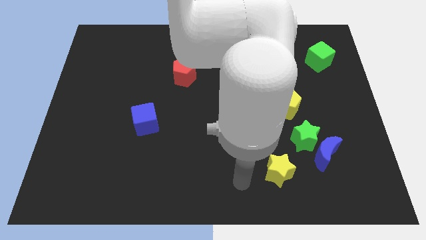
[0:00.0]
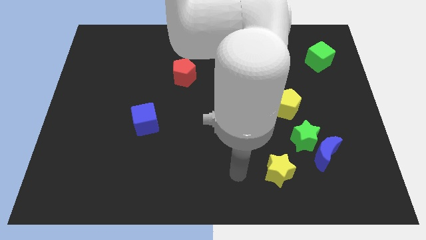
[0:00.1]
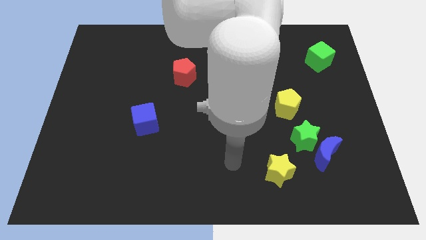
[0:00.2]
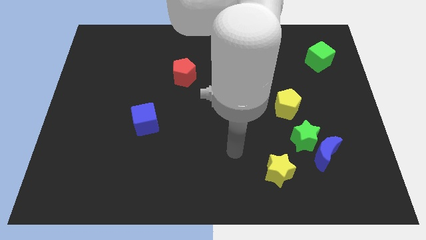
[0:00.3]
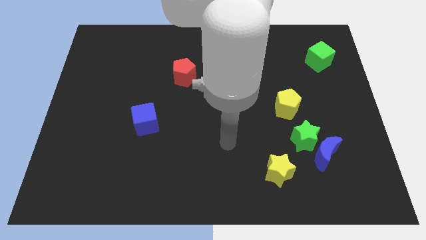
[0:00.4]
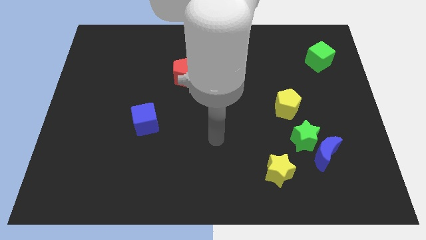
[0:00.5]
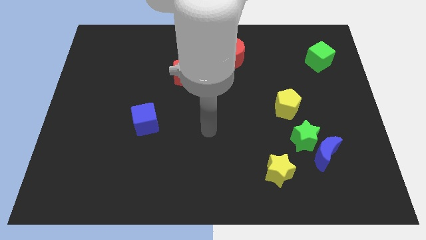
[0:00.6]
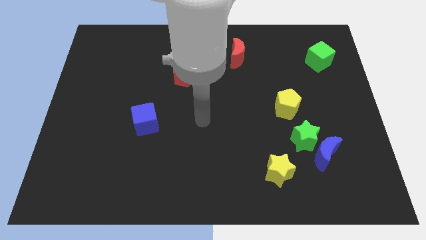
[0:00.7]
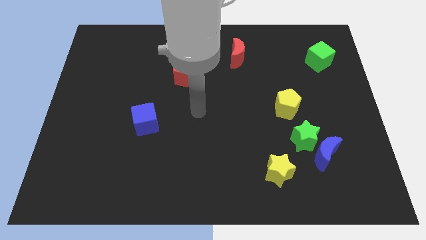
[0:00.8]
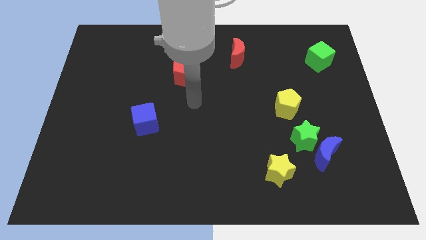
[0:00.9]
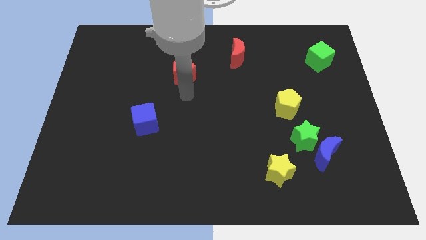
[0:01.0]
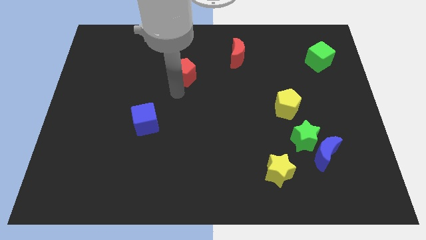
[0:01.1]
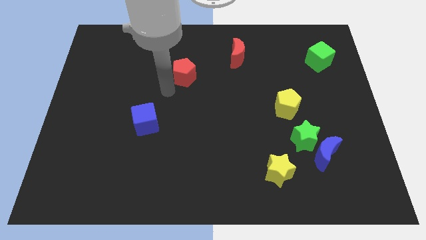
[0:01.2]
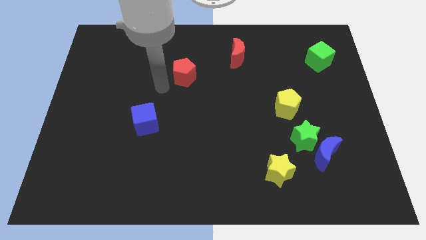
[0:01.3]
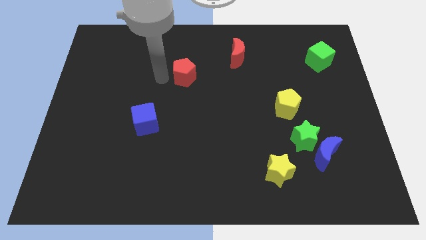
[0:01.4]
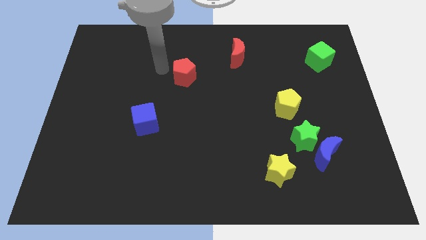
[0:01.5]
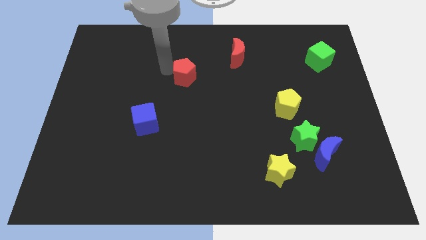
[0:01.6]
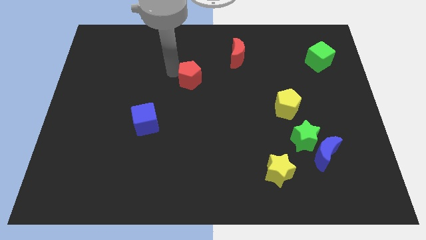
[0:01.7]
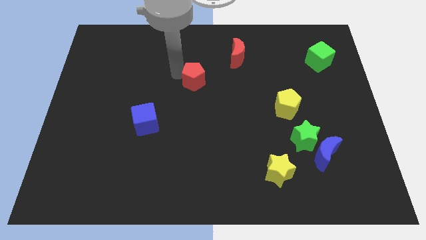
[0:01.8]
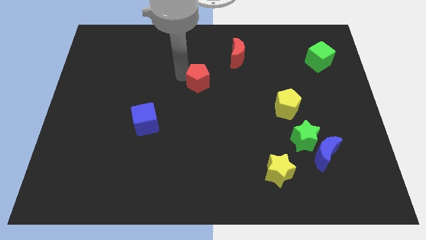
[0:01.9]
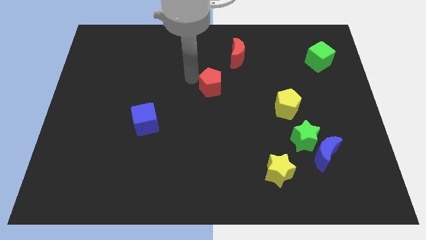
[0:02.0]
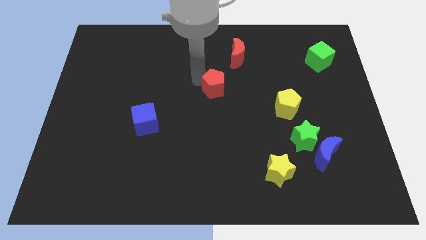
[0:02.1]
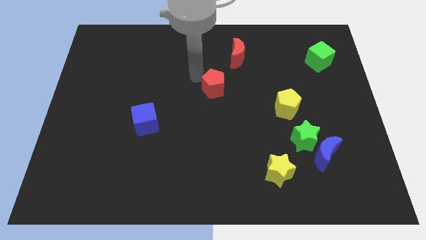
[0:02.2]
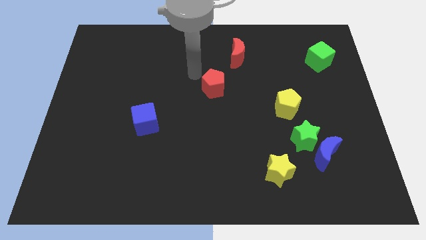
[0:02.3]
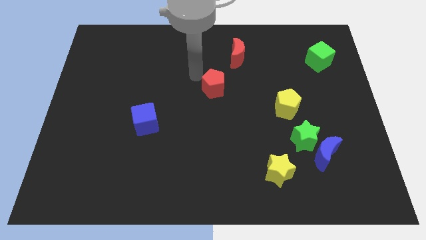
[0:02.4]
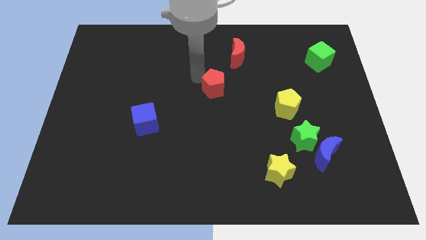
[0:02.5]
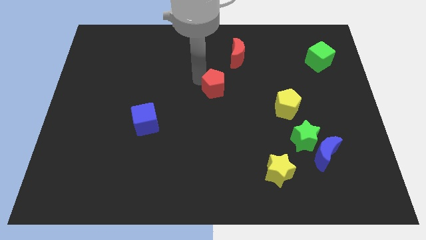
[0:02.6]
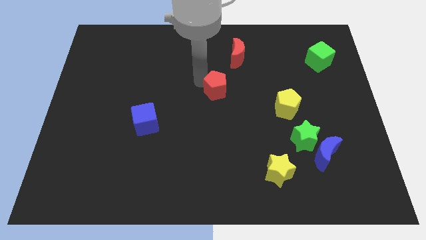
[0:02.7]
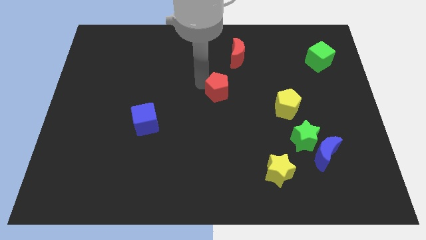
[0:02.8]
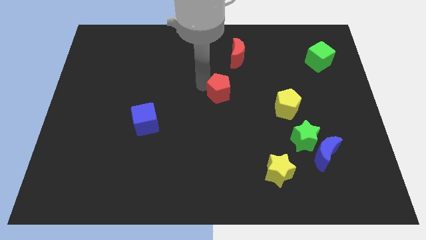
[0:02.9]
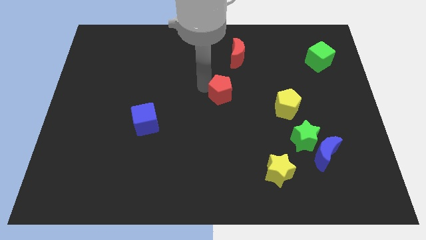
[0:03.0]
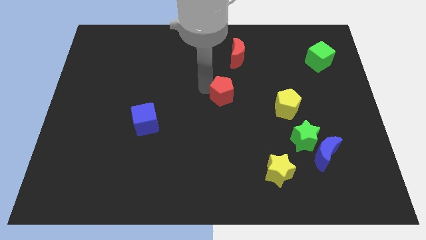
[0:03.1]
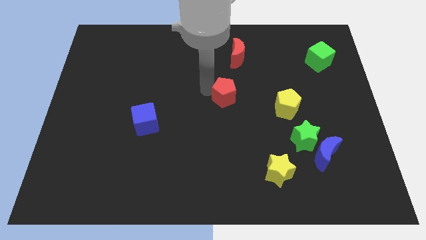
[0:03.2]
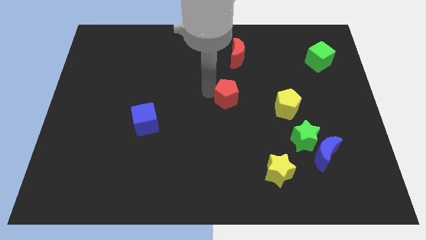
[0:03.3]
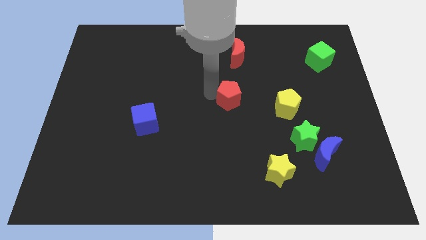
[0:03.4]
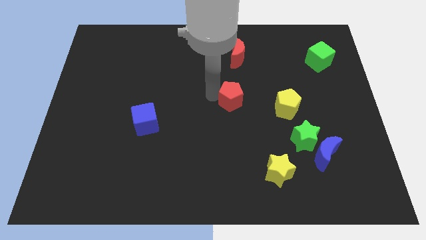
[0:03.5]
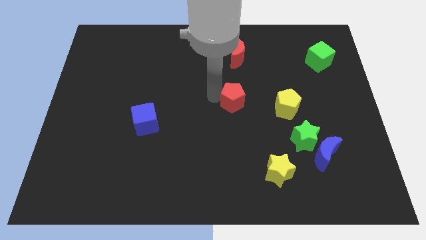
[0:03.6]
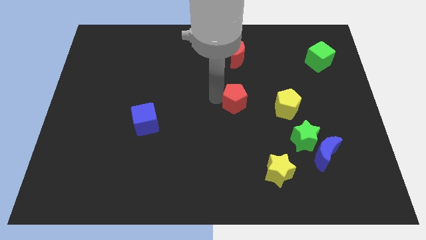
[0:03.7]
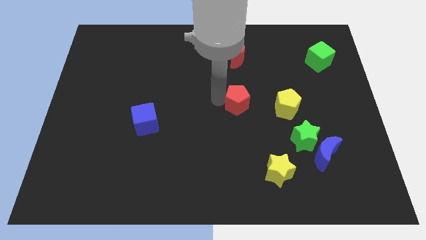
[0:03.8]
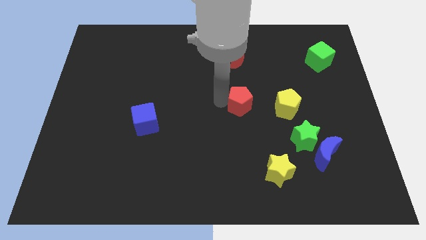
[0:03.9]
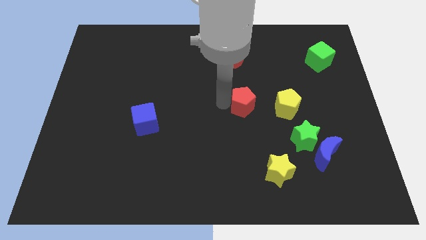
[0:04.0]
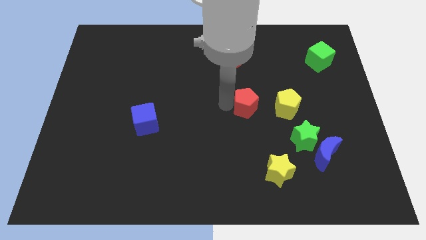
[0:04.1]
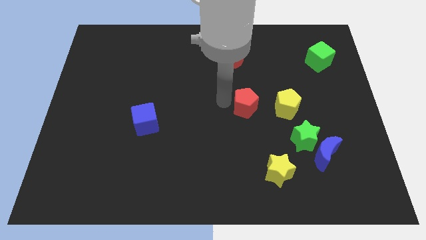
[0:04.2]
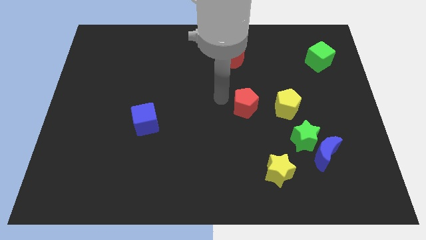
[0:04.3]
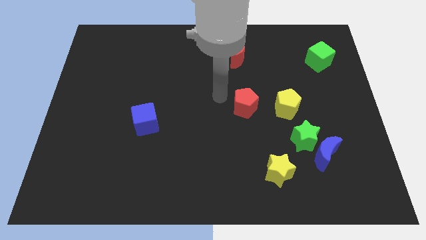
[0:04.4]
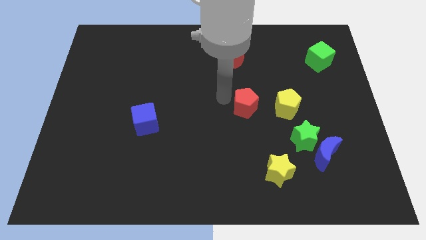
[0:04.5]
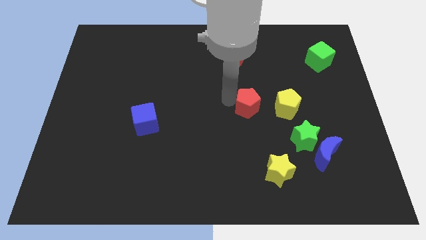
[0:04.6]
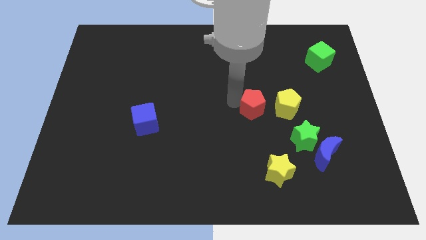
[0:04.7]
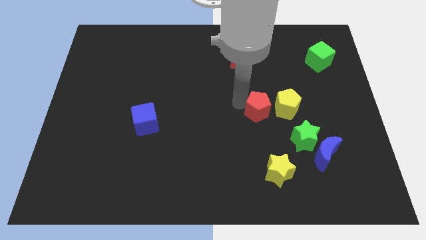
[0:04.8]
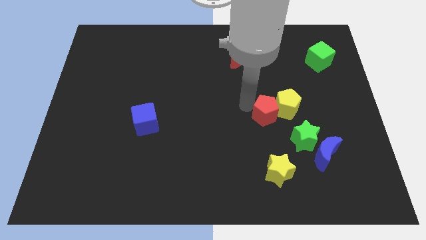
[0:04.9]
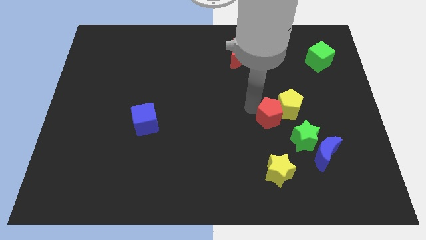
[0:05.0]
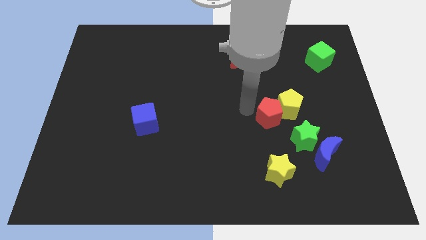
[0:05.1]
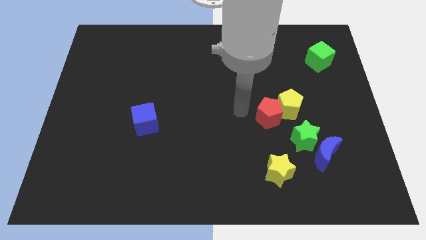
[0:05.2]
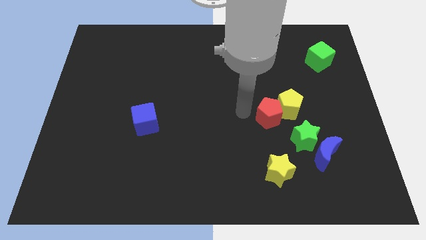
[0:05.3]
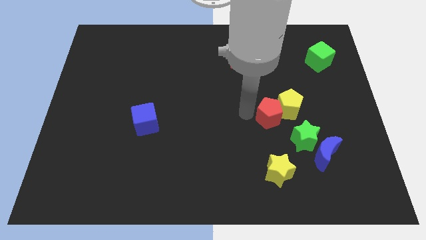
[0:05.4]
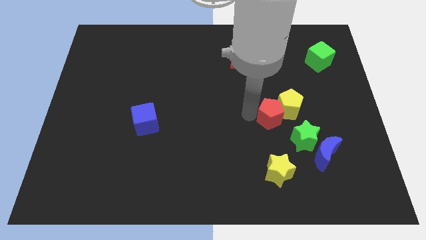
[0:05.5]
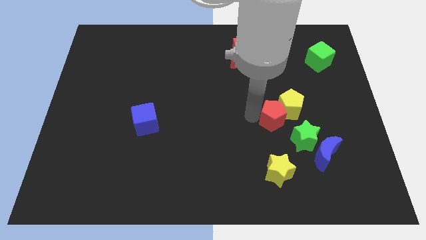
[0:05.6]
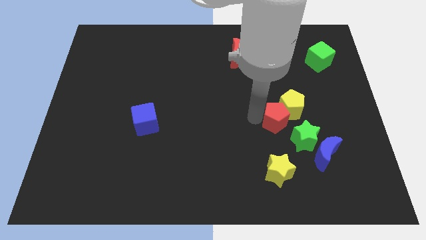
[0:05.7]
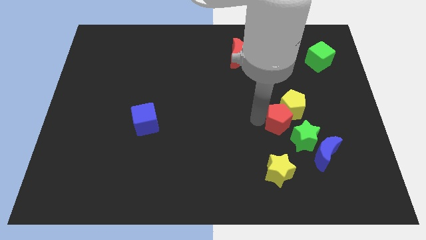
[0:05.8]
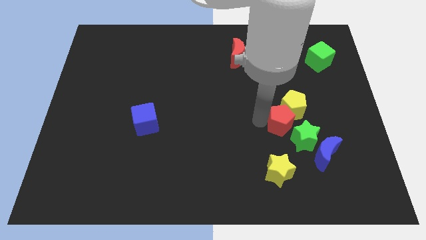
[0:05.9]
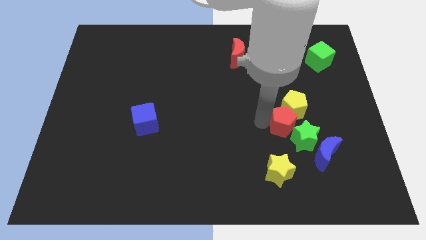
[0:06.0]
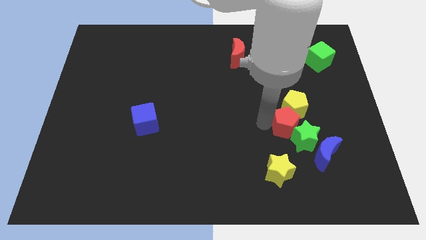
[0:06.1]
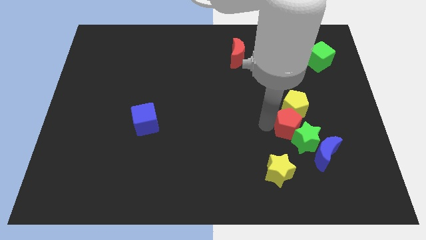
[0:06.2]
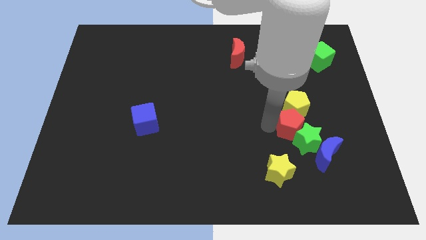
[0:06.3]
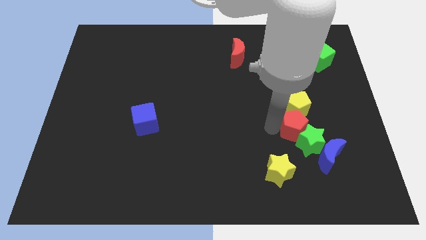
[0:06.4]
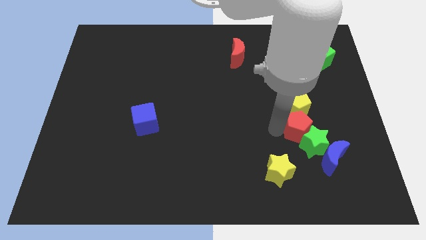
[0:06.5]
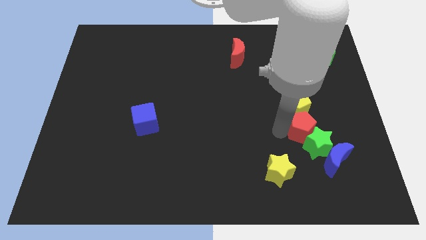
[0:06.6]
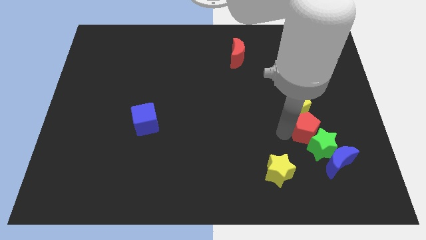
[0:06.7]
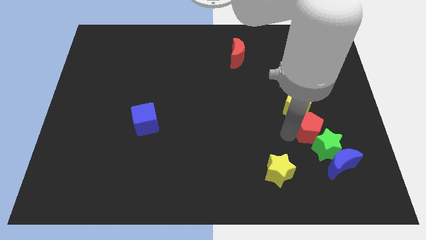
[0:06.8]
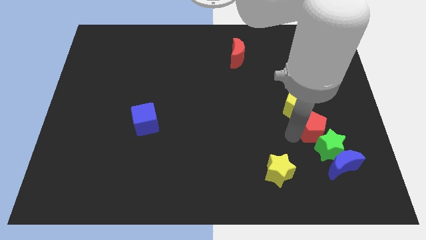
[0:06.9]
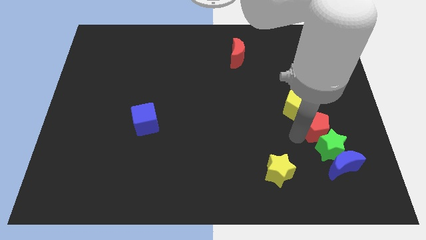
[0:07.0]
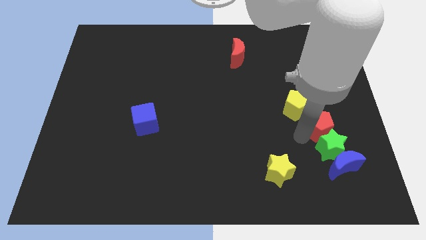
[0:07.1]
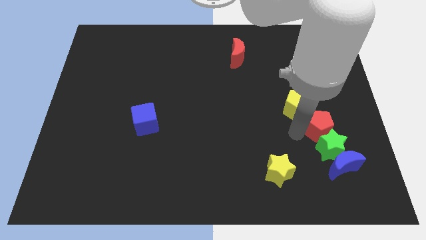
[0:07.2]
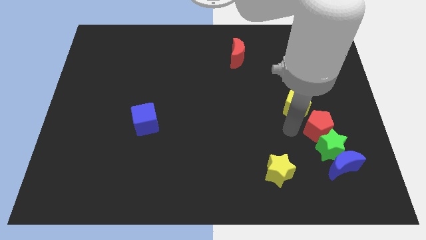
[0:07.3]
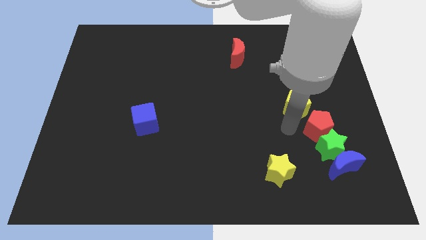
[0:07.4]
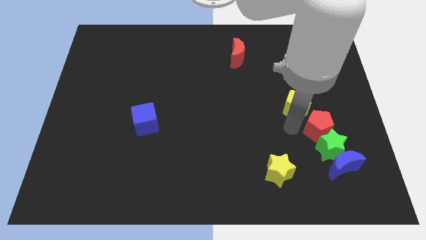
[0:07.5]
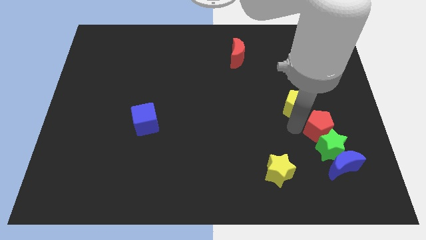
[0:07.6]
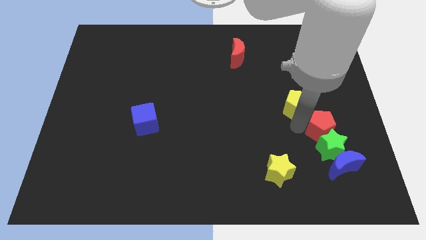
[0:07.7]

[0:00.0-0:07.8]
put the red pentagon diagonally up and to the right of the green star
